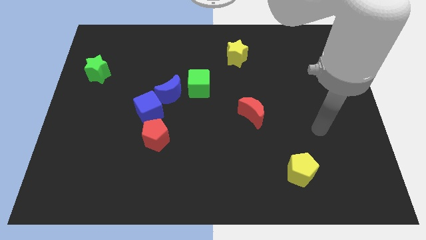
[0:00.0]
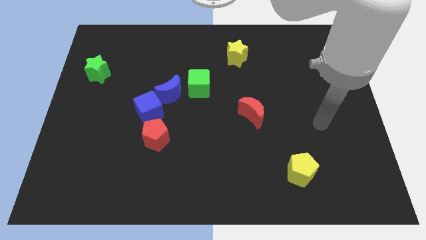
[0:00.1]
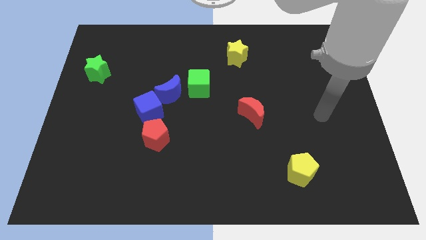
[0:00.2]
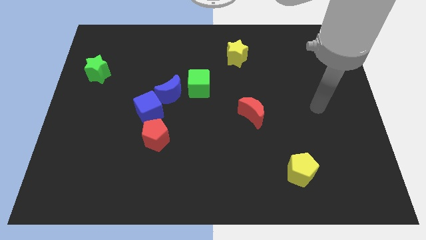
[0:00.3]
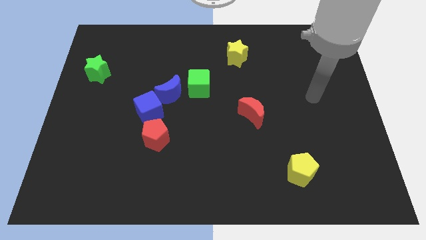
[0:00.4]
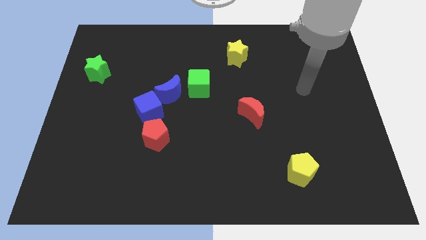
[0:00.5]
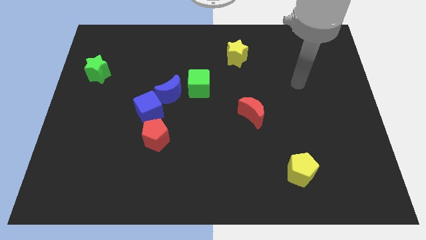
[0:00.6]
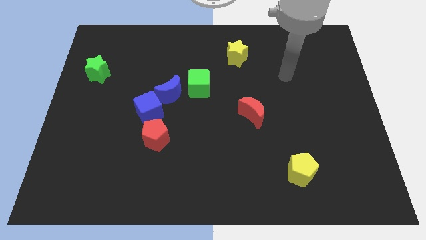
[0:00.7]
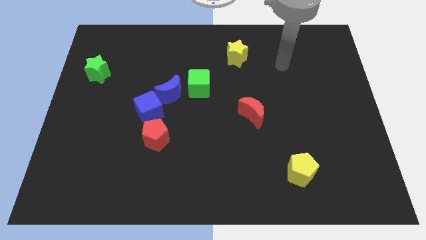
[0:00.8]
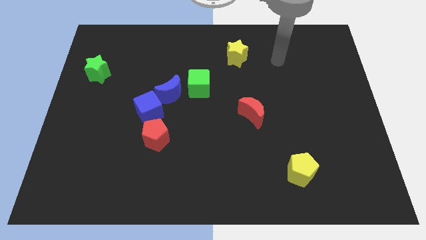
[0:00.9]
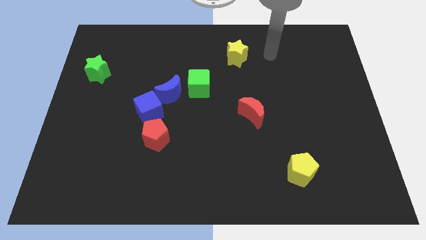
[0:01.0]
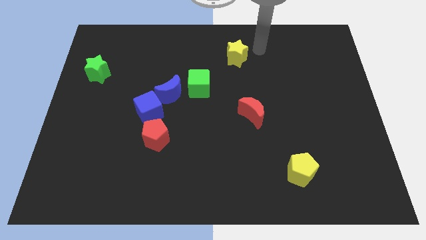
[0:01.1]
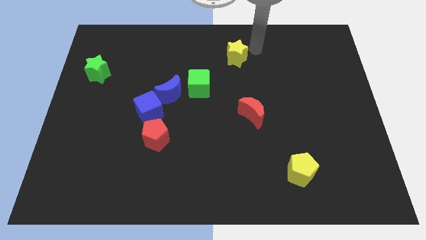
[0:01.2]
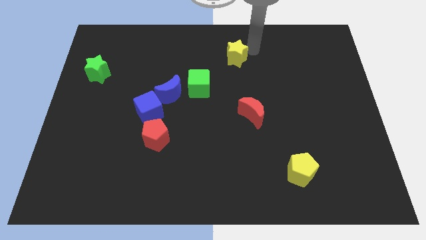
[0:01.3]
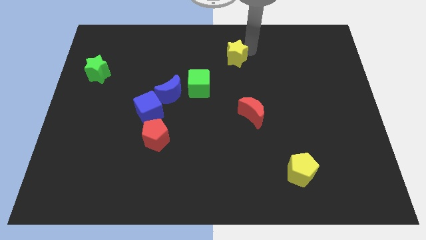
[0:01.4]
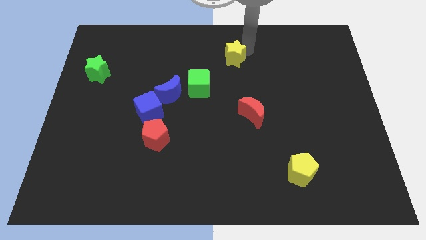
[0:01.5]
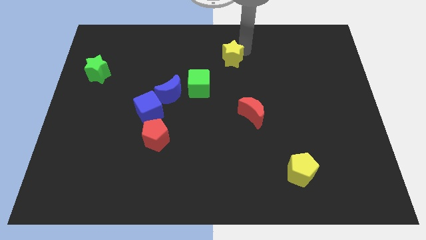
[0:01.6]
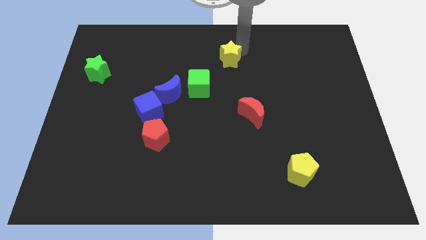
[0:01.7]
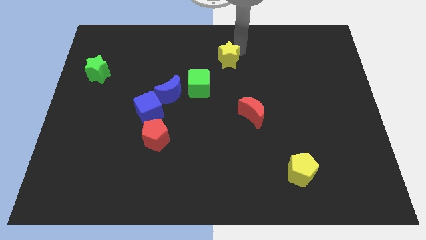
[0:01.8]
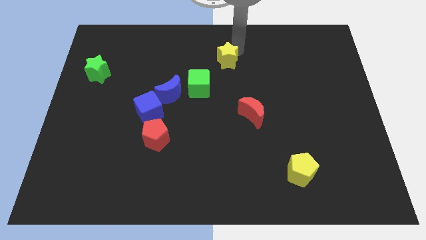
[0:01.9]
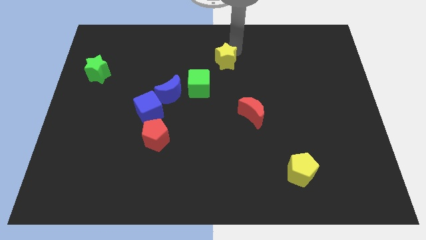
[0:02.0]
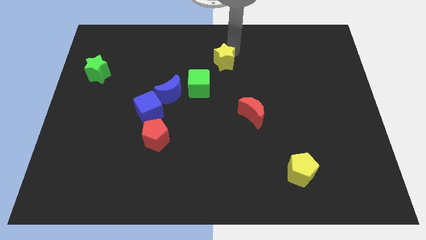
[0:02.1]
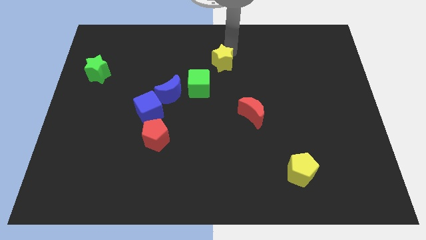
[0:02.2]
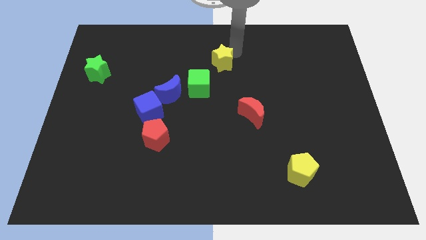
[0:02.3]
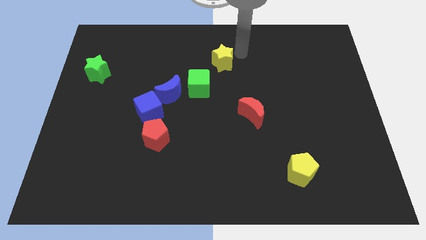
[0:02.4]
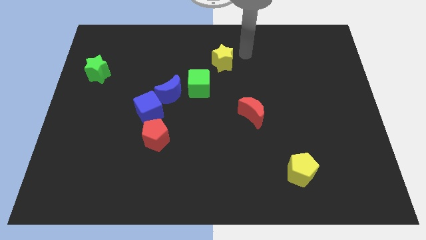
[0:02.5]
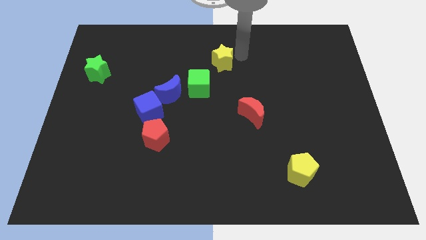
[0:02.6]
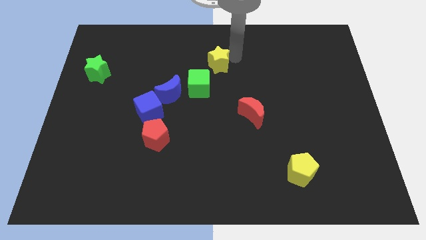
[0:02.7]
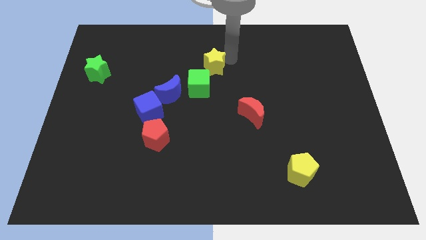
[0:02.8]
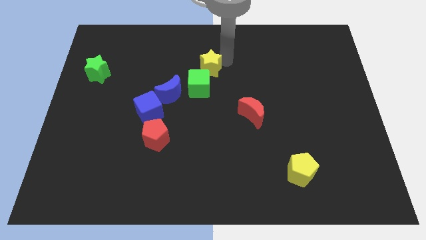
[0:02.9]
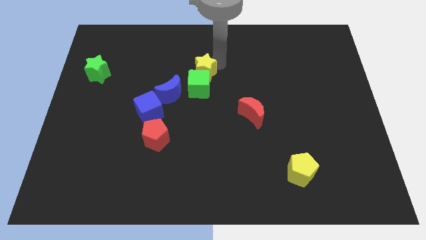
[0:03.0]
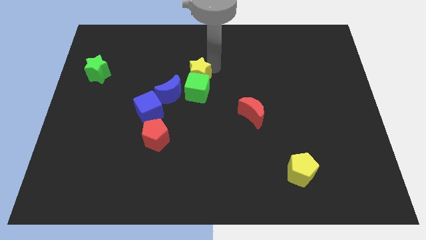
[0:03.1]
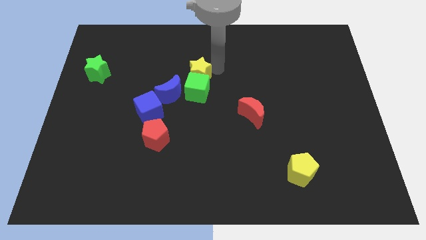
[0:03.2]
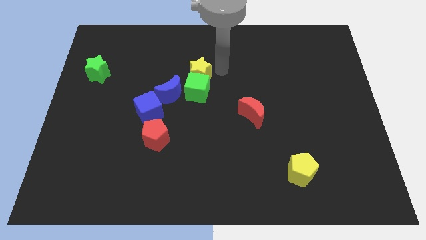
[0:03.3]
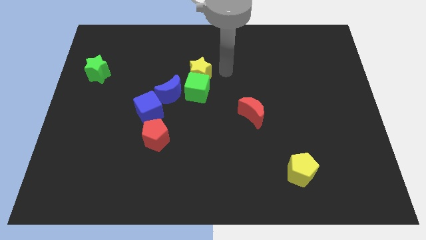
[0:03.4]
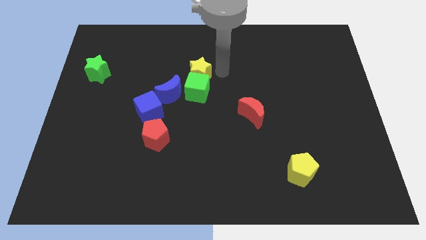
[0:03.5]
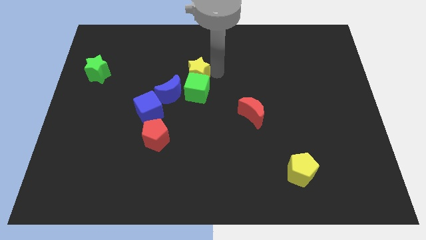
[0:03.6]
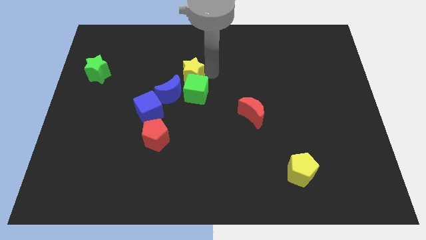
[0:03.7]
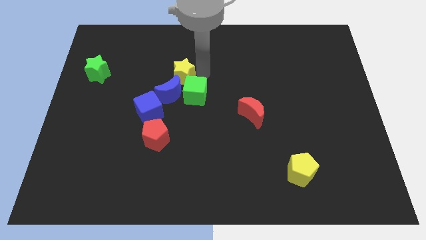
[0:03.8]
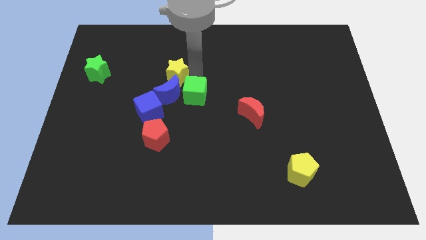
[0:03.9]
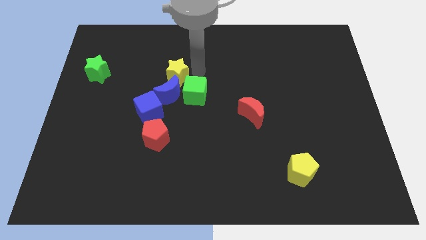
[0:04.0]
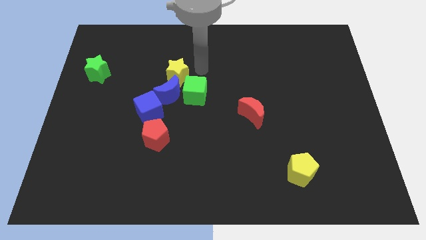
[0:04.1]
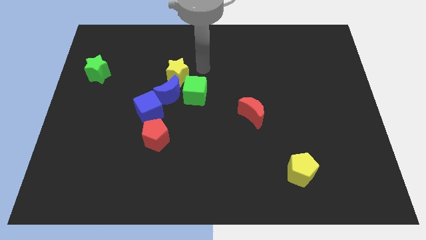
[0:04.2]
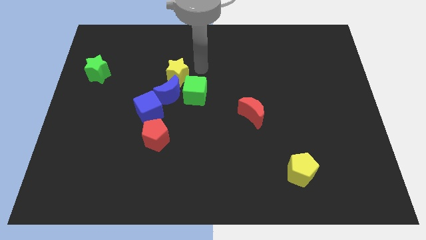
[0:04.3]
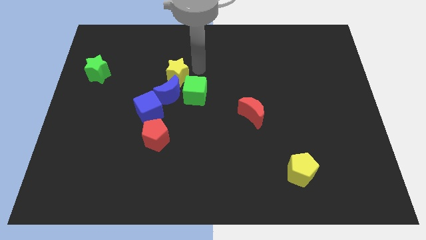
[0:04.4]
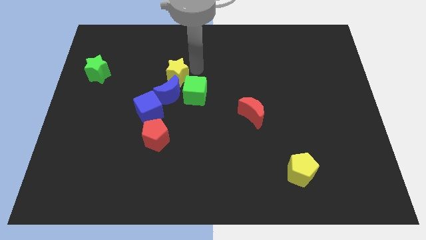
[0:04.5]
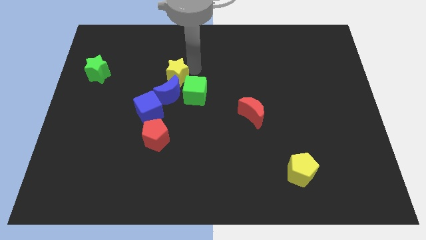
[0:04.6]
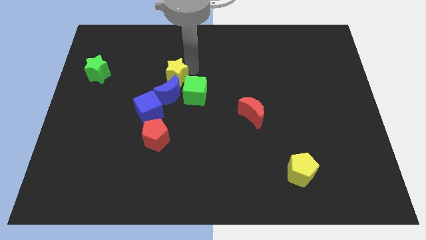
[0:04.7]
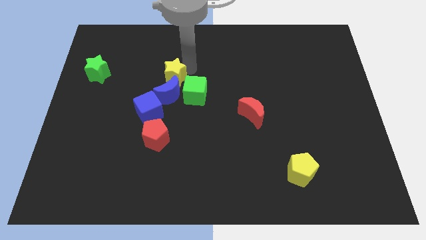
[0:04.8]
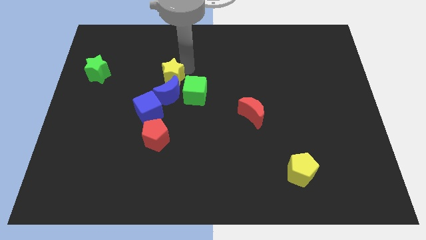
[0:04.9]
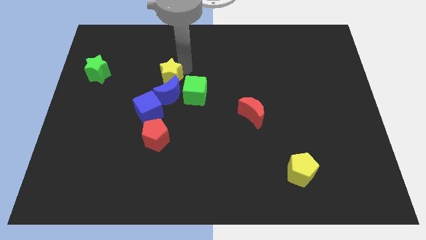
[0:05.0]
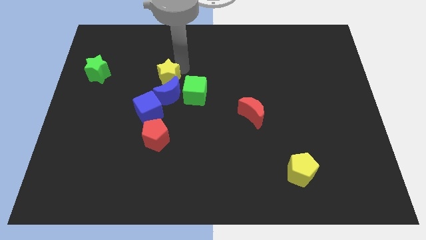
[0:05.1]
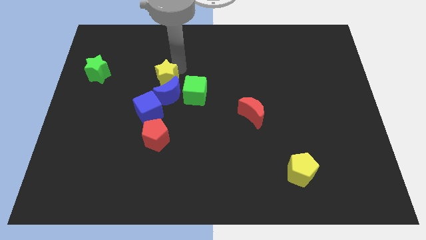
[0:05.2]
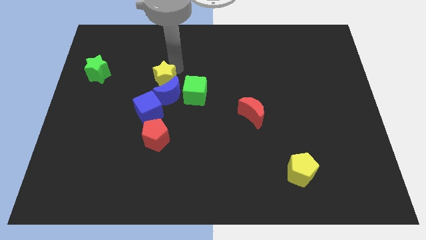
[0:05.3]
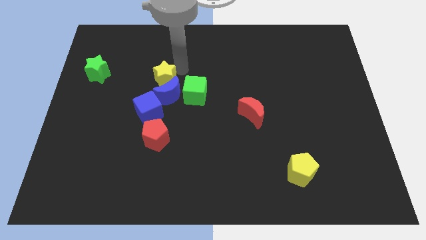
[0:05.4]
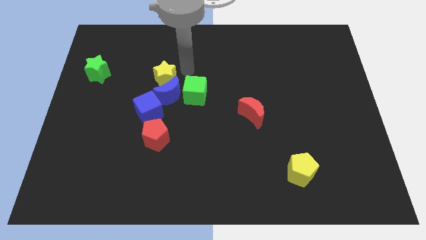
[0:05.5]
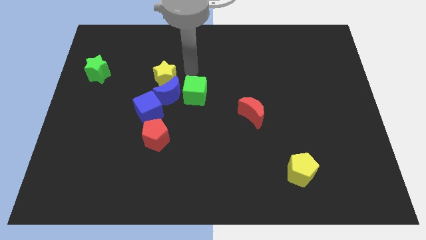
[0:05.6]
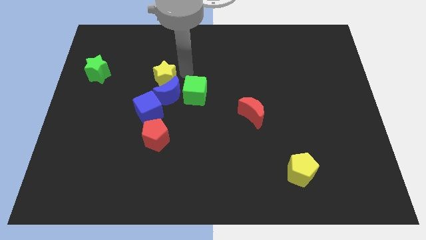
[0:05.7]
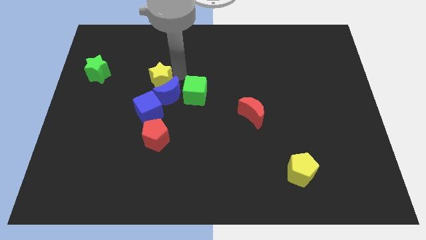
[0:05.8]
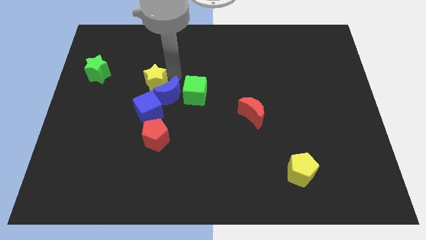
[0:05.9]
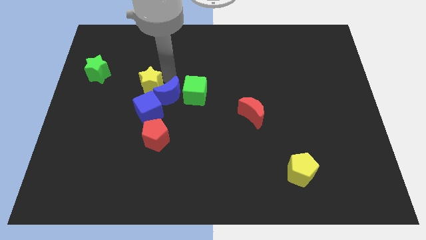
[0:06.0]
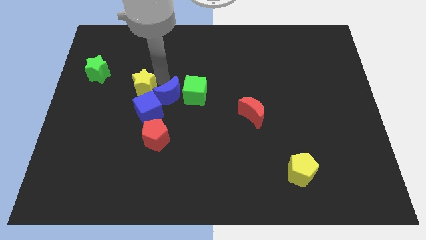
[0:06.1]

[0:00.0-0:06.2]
slide the yellow star diagonally downwards and left

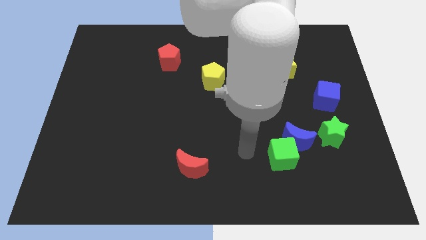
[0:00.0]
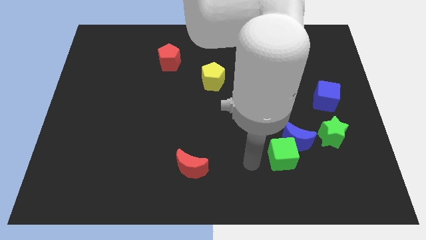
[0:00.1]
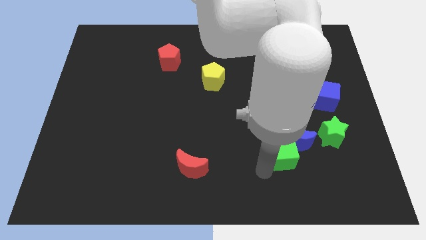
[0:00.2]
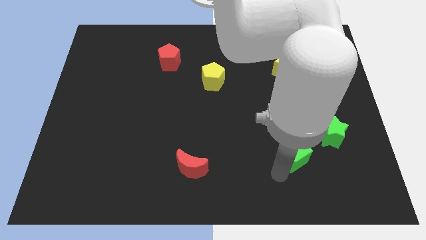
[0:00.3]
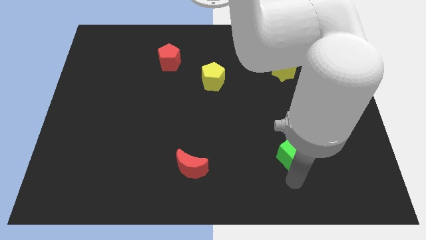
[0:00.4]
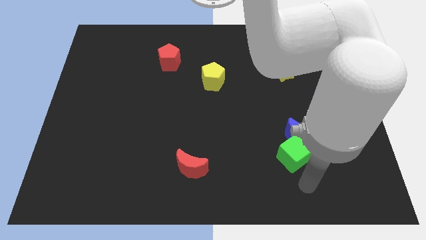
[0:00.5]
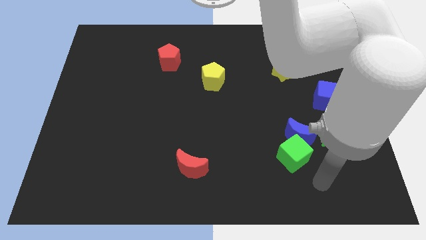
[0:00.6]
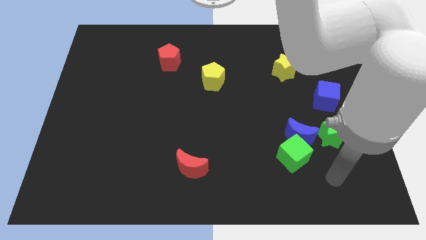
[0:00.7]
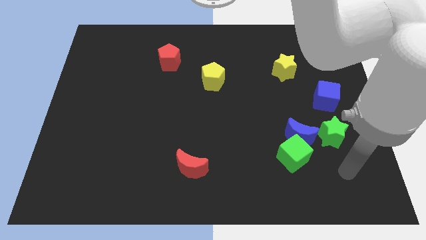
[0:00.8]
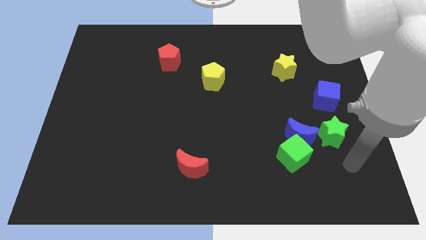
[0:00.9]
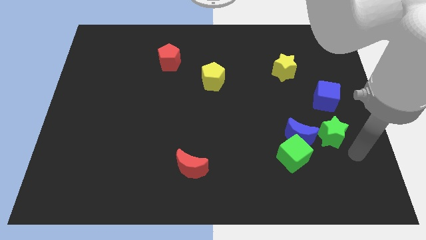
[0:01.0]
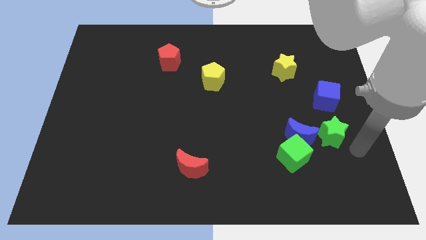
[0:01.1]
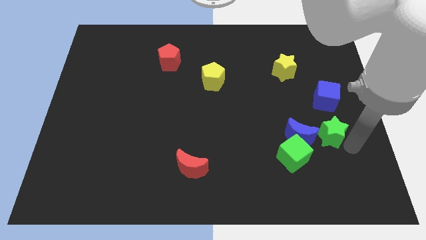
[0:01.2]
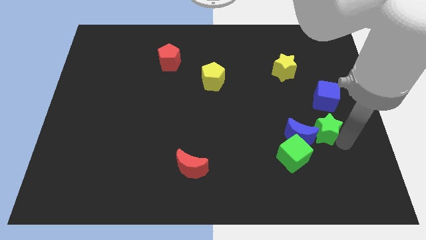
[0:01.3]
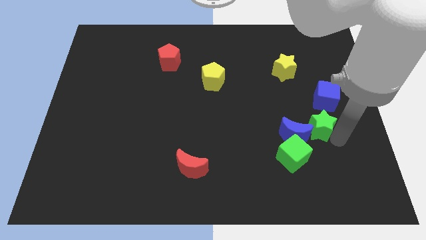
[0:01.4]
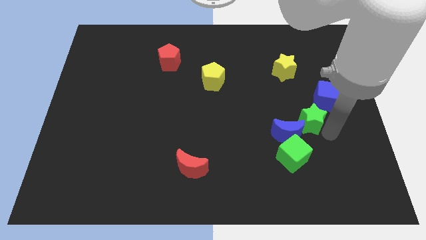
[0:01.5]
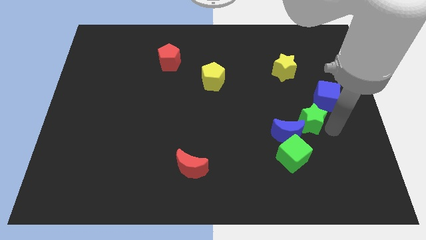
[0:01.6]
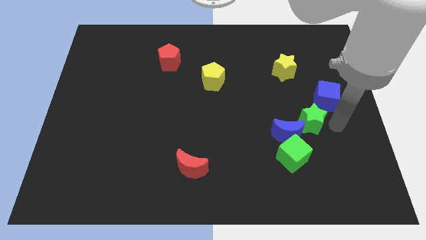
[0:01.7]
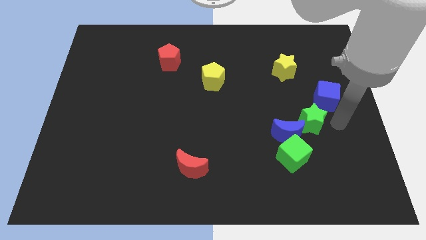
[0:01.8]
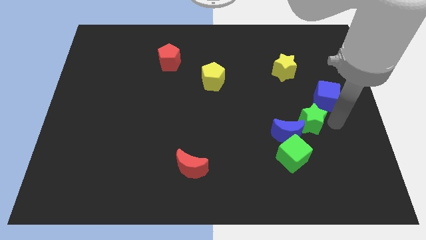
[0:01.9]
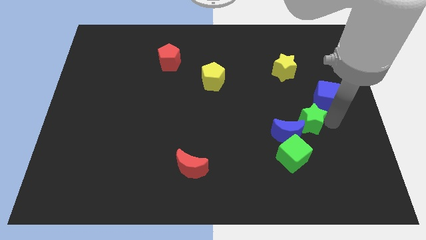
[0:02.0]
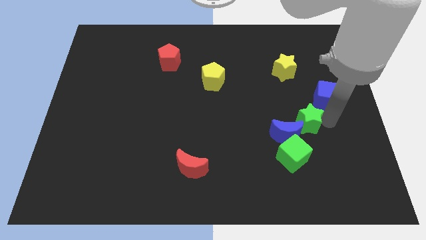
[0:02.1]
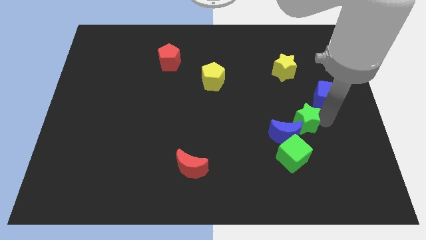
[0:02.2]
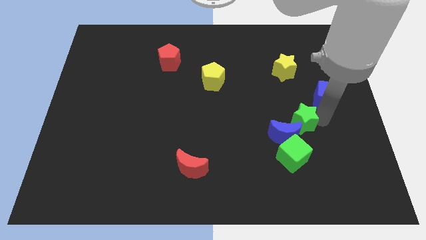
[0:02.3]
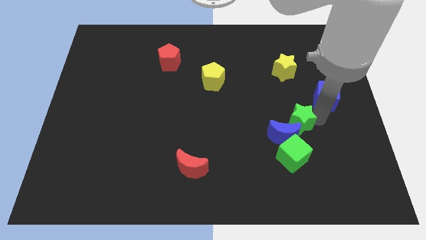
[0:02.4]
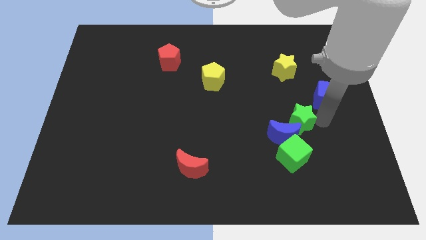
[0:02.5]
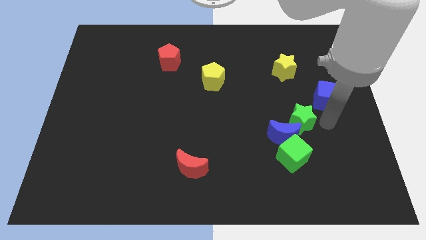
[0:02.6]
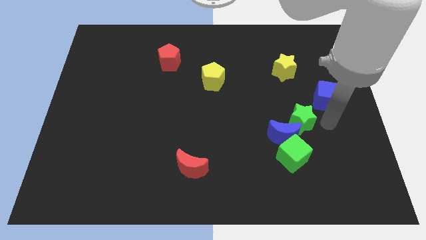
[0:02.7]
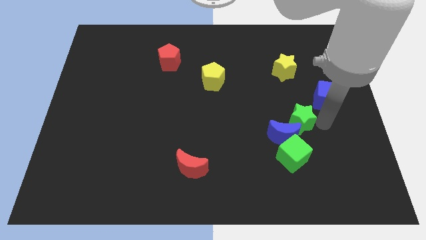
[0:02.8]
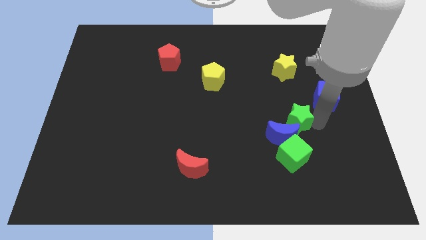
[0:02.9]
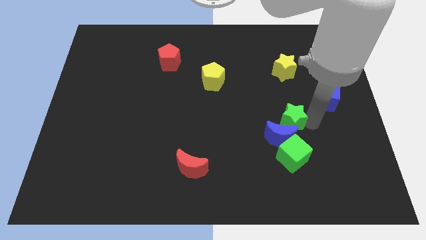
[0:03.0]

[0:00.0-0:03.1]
move the green star left a little
